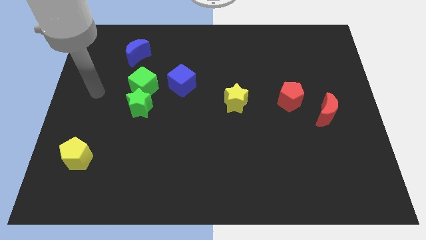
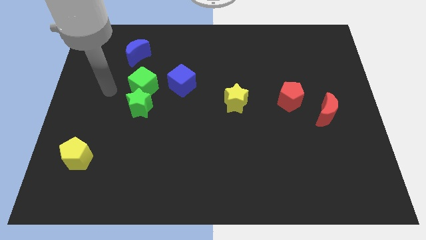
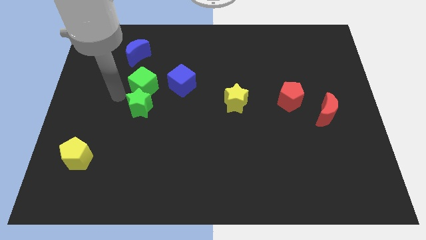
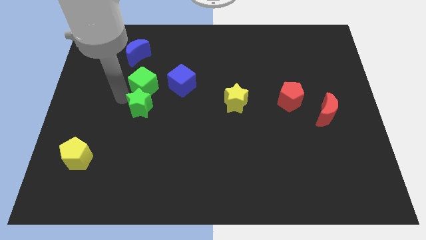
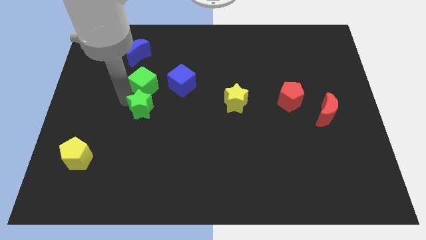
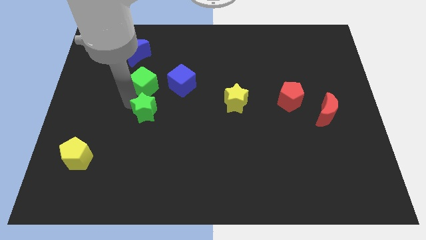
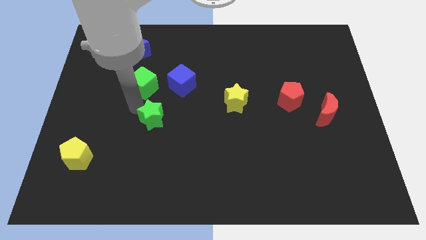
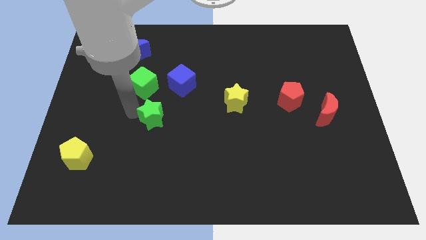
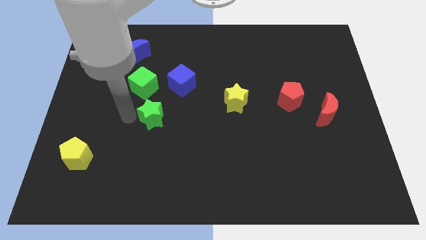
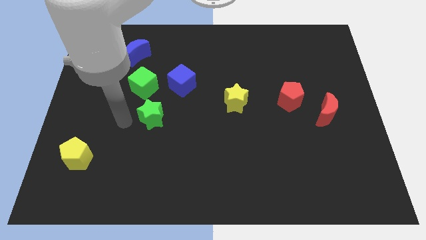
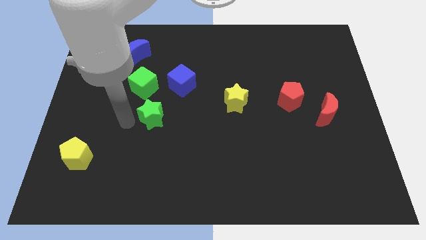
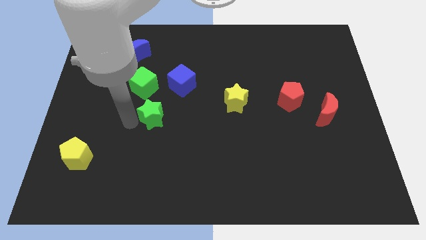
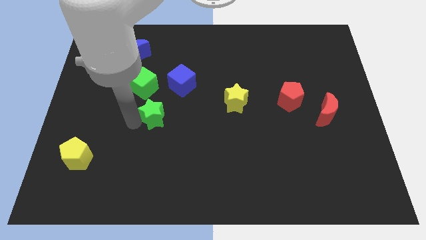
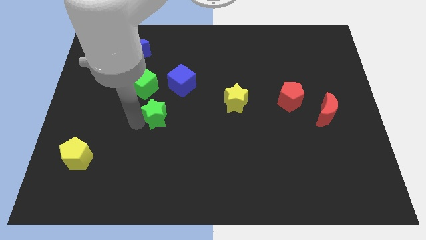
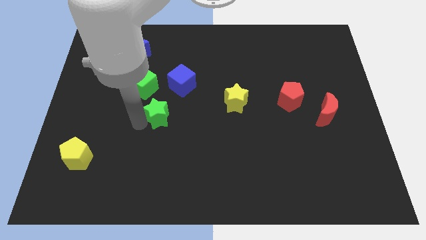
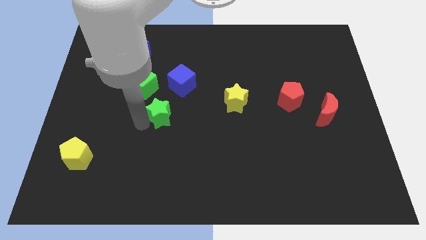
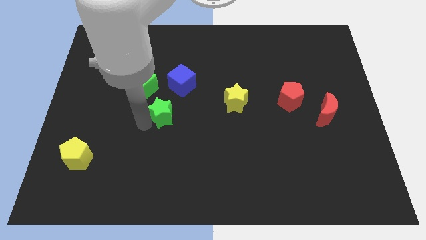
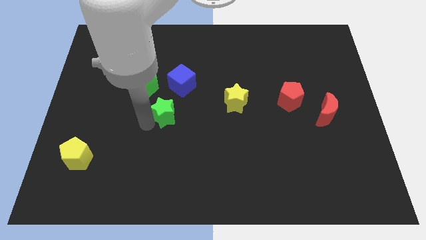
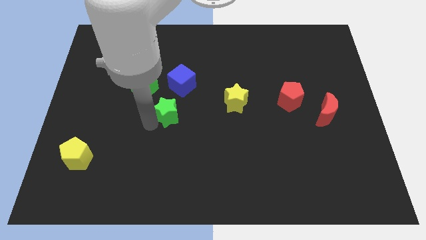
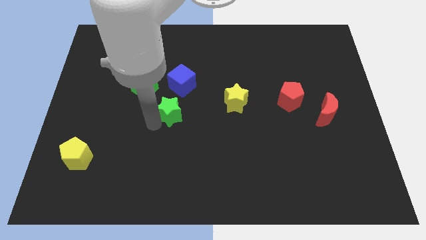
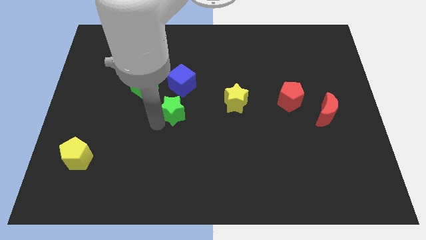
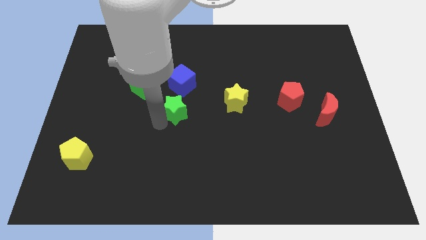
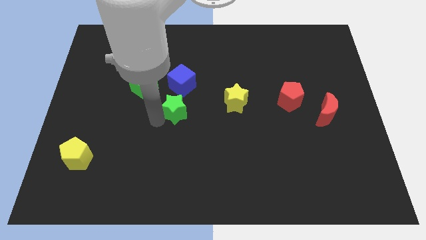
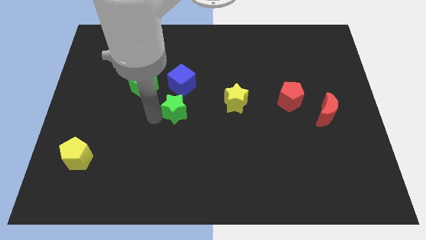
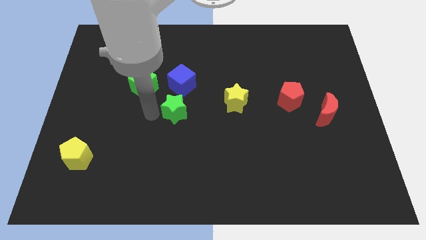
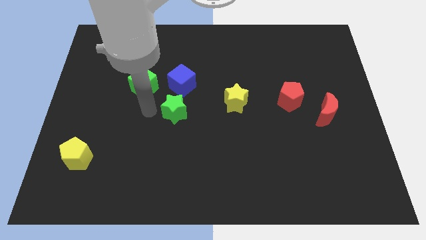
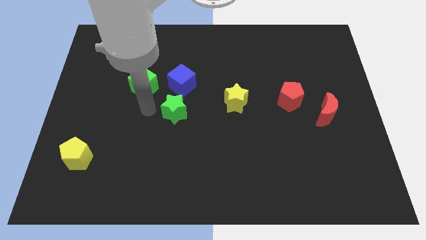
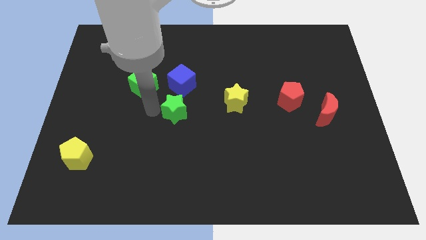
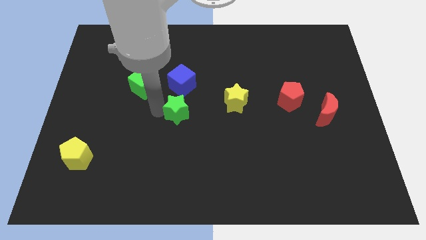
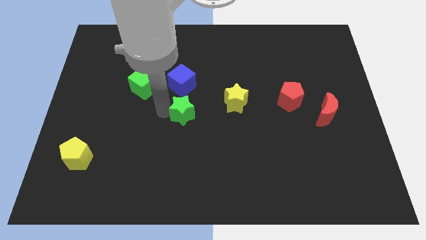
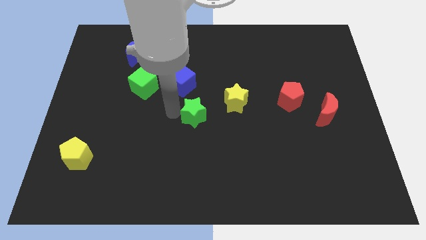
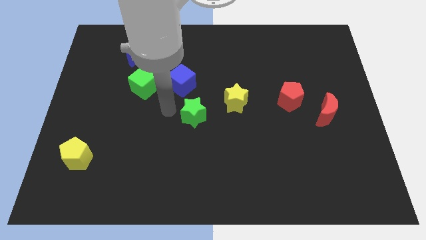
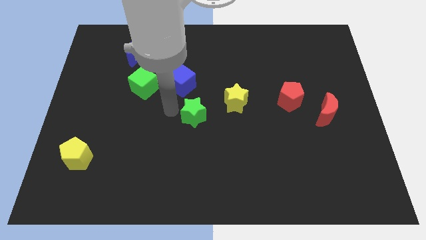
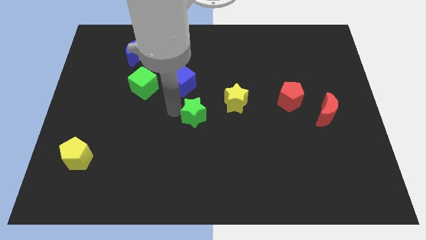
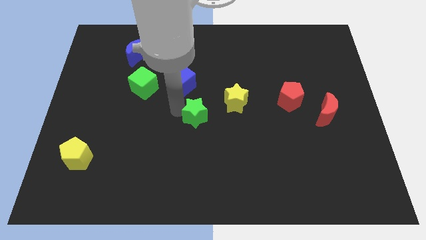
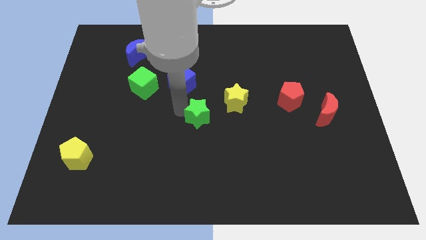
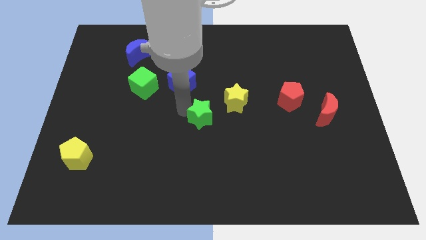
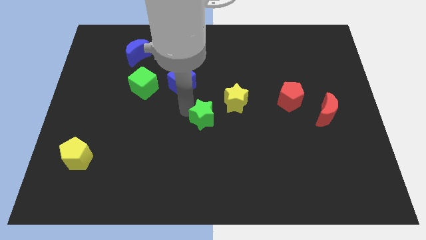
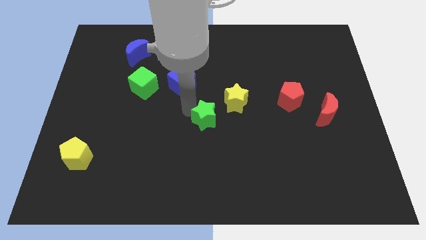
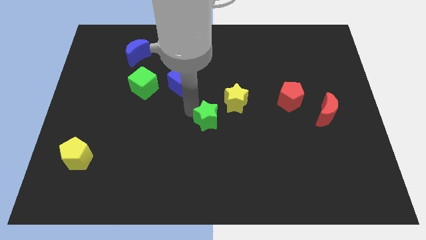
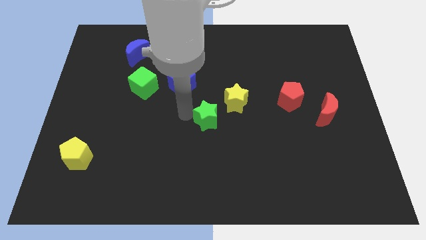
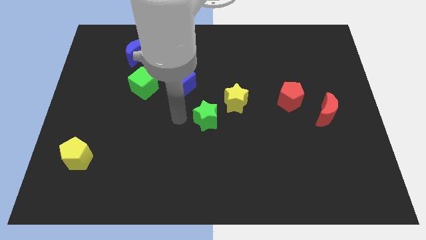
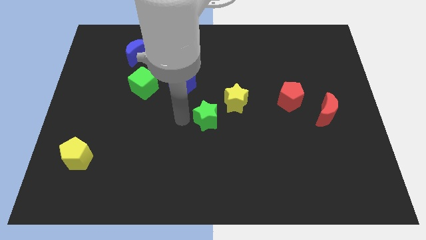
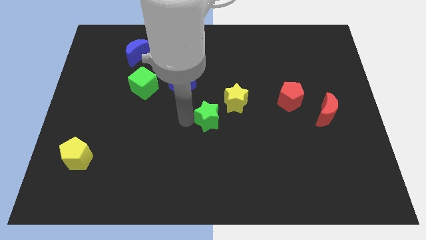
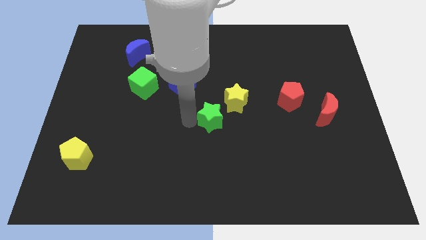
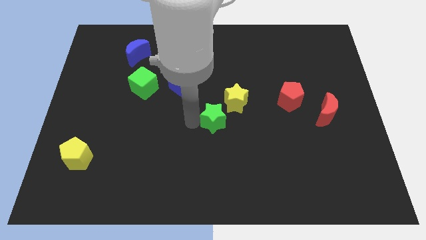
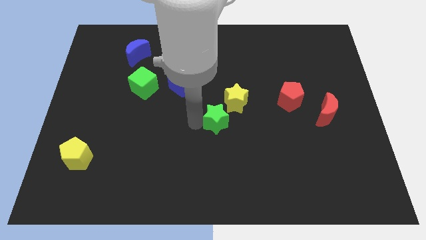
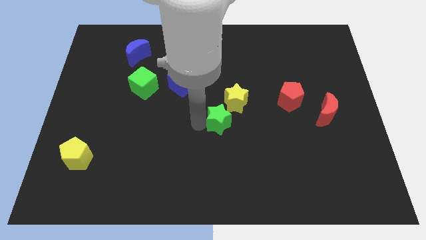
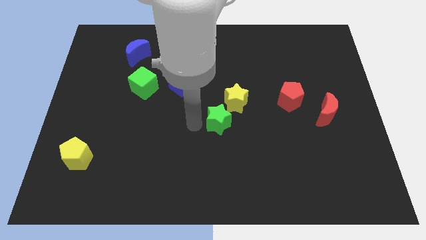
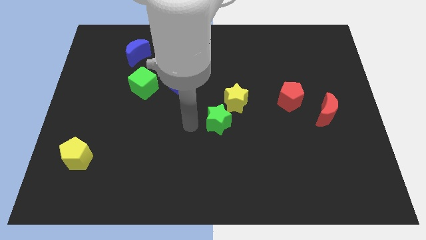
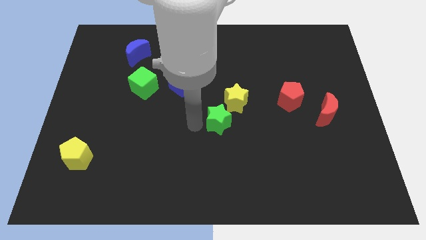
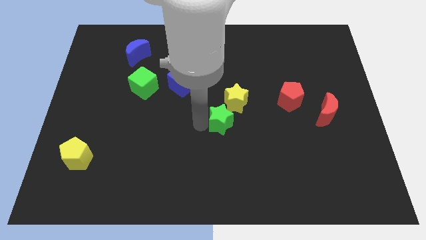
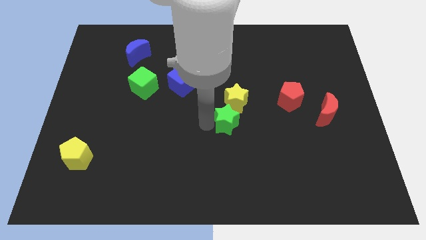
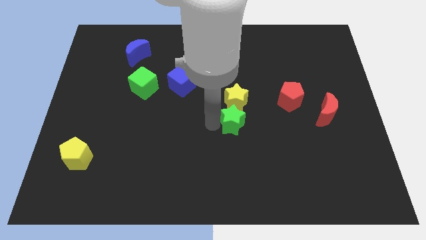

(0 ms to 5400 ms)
move the green star to the right

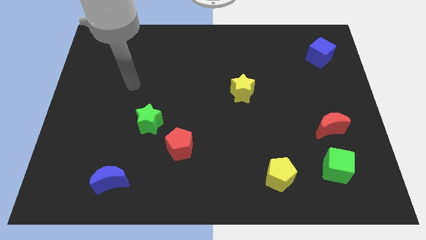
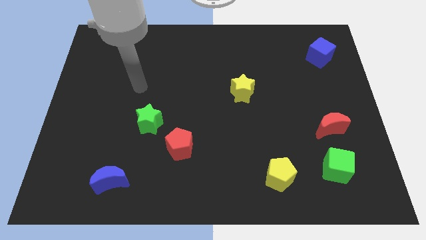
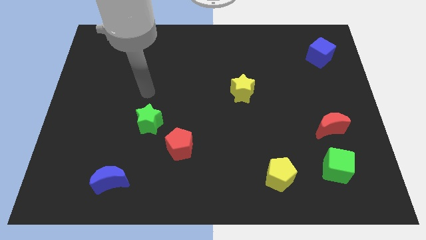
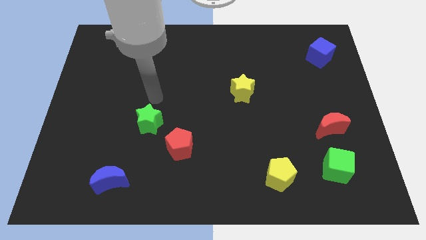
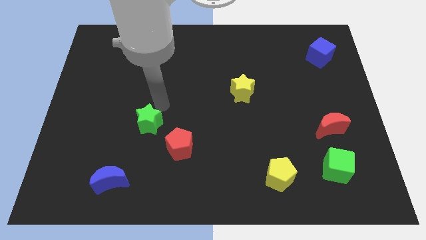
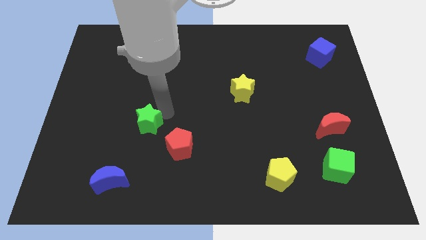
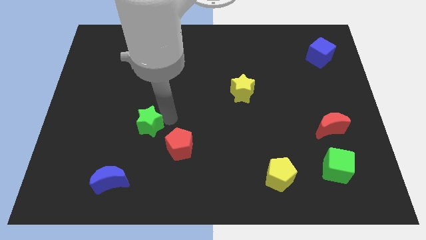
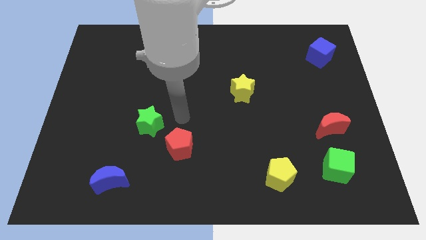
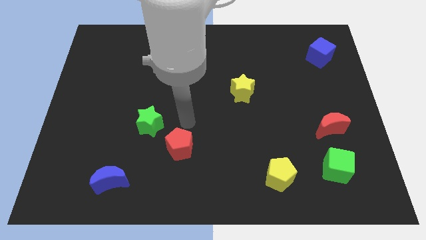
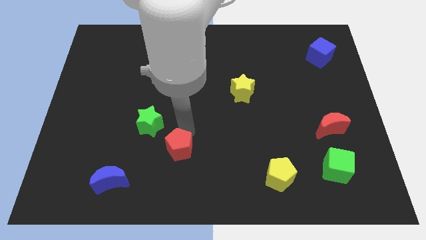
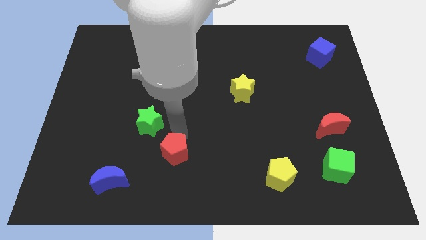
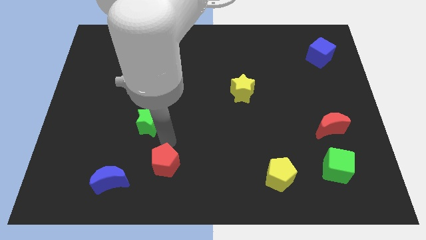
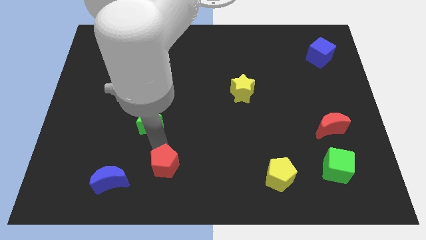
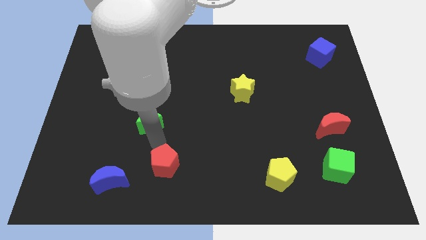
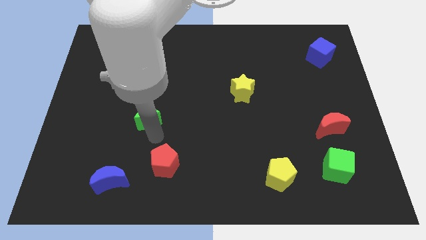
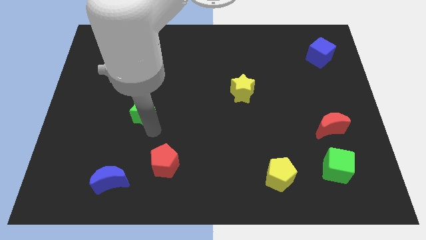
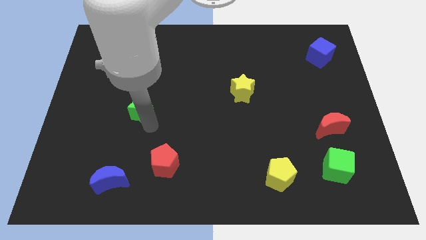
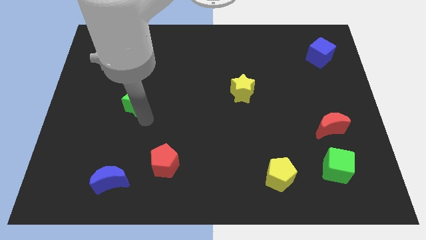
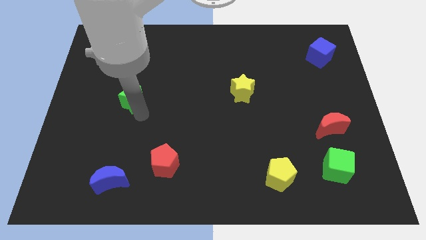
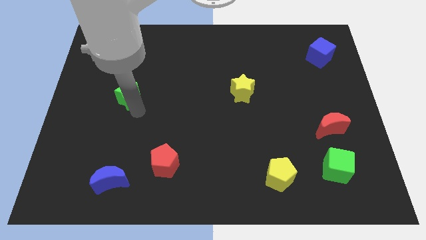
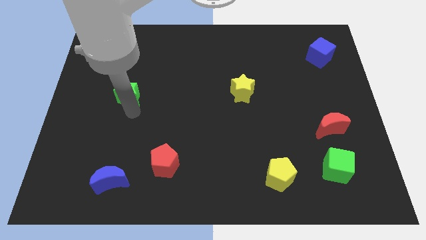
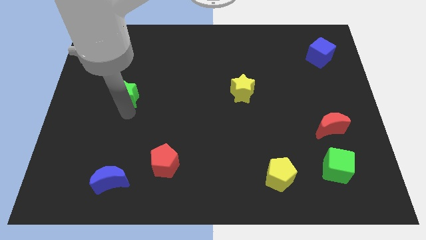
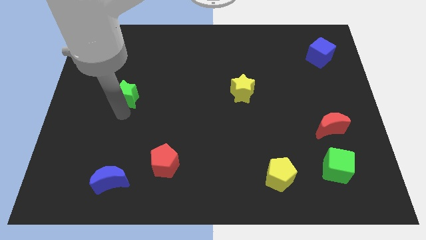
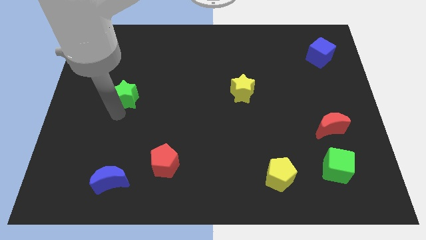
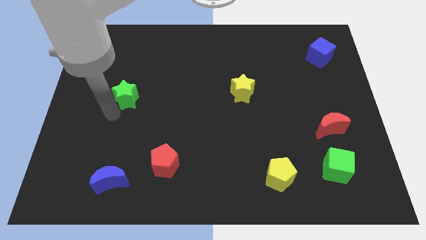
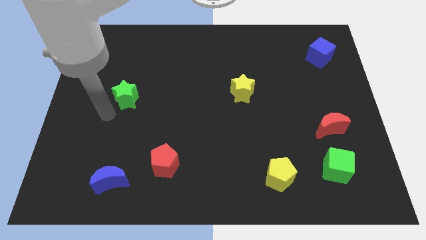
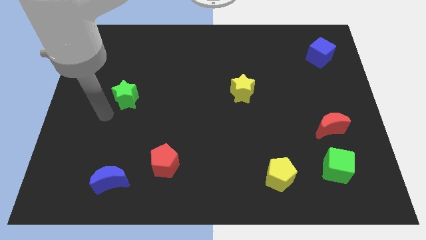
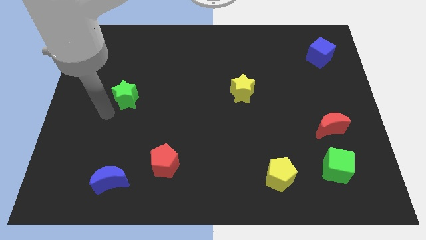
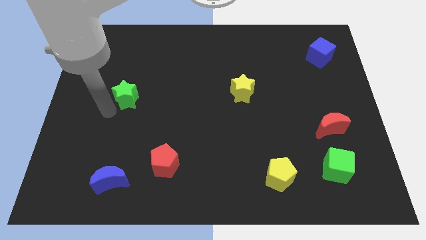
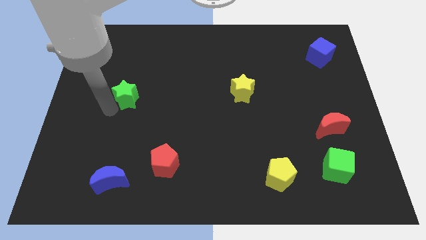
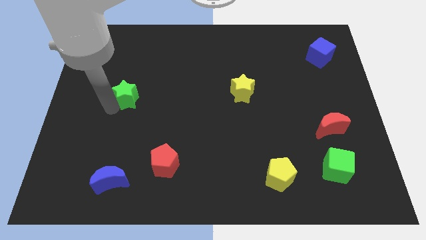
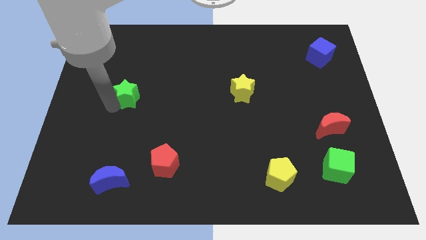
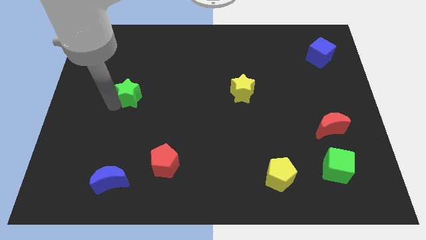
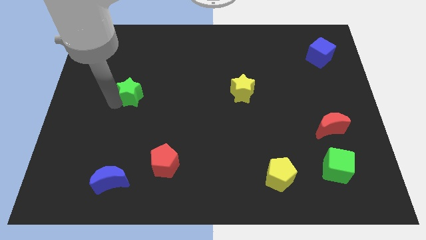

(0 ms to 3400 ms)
push the green star up a little
